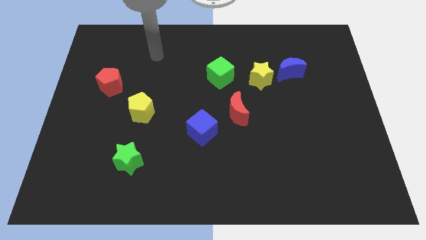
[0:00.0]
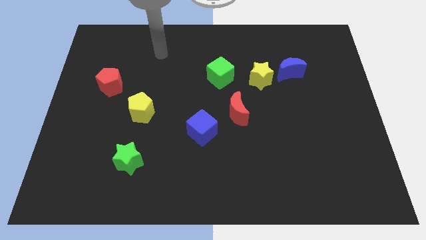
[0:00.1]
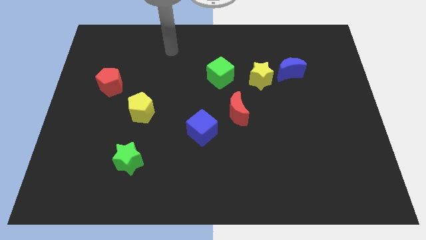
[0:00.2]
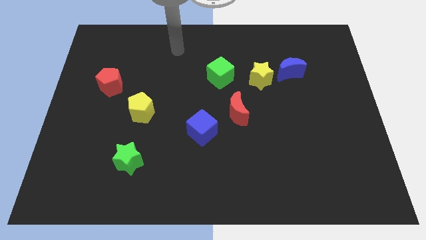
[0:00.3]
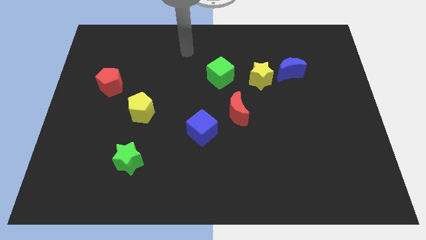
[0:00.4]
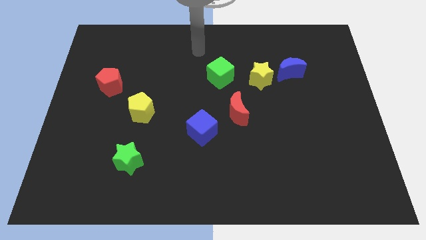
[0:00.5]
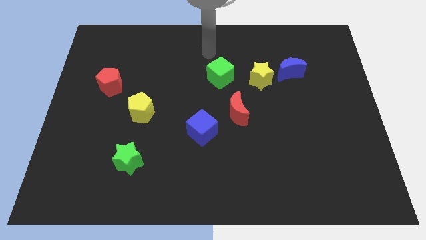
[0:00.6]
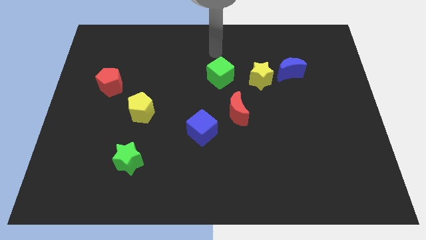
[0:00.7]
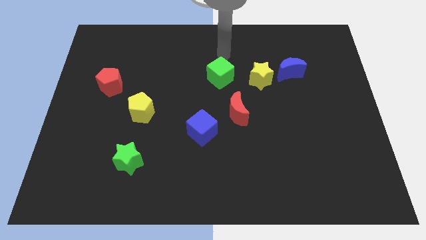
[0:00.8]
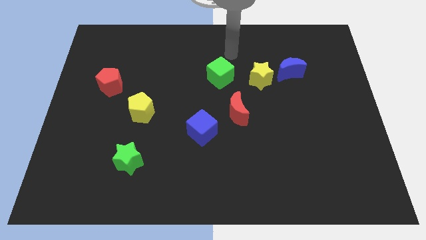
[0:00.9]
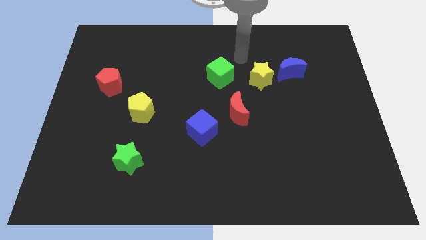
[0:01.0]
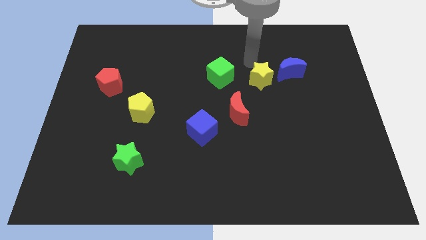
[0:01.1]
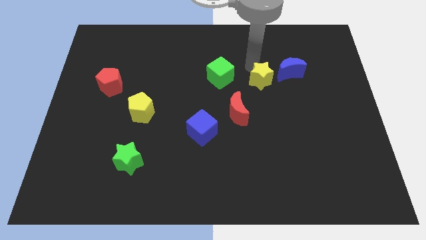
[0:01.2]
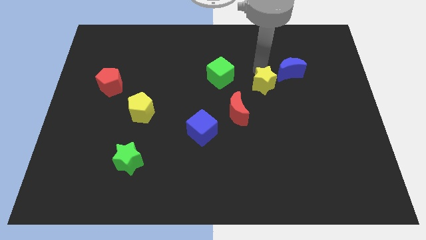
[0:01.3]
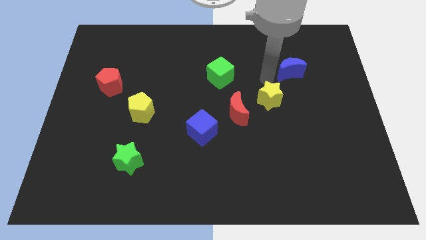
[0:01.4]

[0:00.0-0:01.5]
separate the blue moon from the yellow star

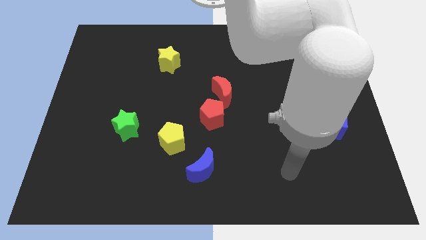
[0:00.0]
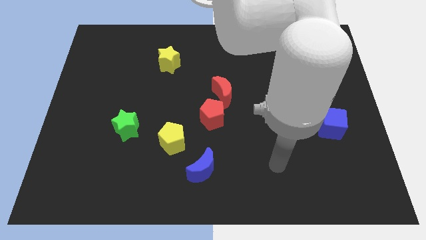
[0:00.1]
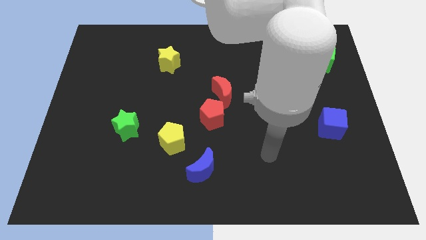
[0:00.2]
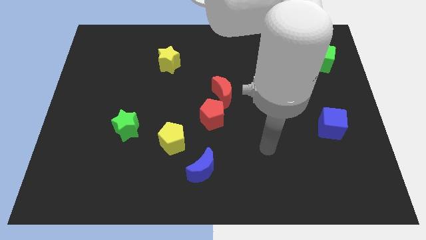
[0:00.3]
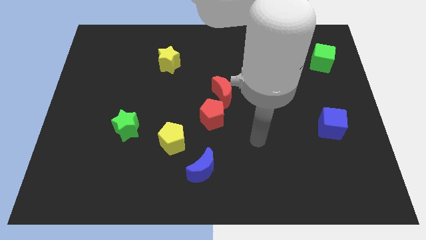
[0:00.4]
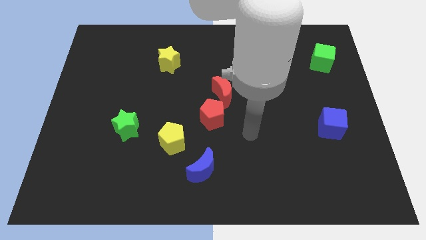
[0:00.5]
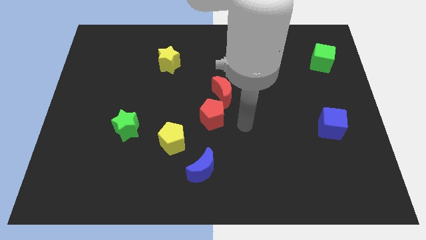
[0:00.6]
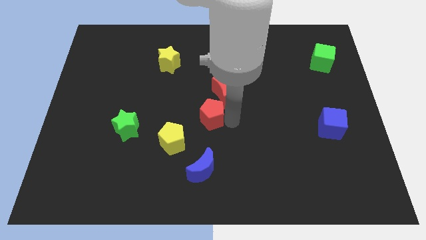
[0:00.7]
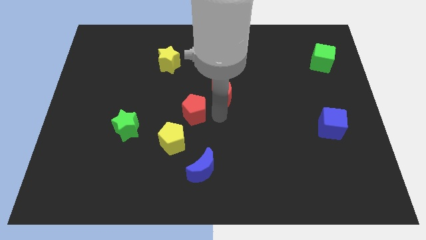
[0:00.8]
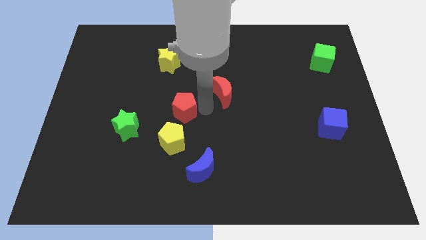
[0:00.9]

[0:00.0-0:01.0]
separate the red moon from the red pentagon

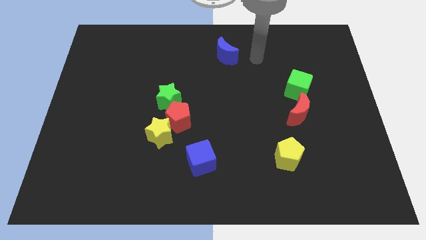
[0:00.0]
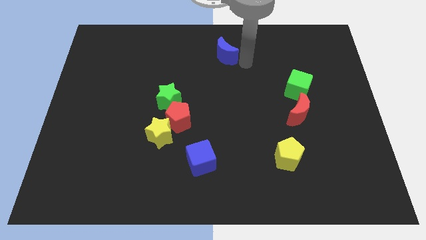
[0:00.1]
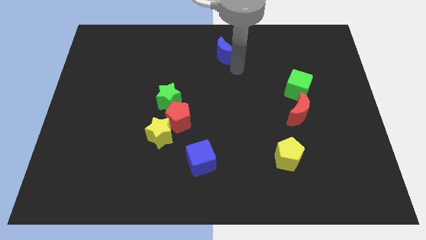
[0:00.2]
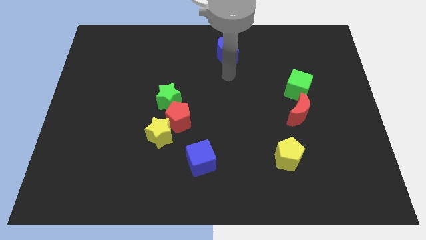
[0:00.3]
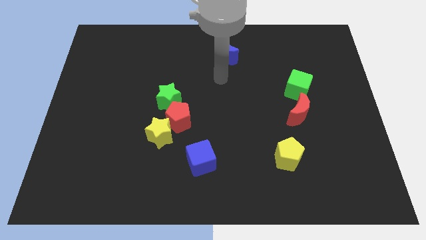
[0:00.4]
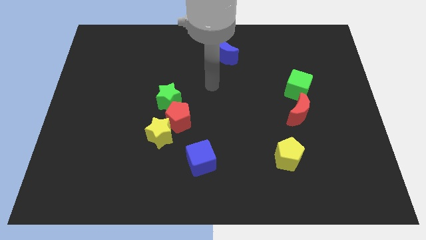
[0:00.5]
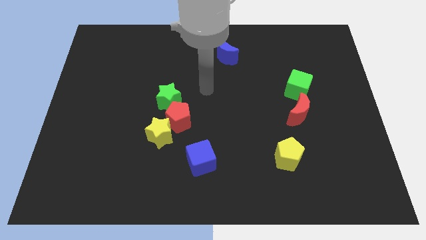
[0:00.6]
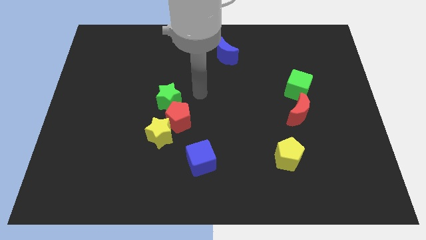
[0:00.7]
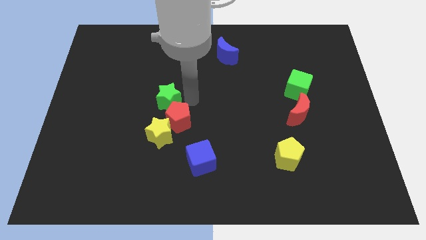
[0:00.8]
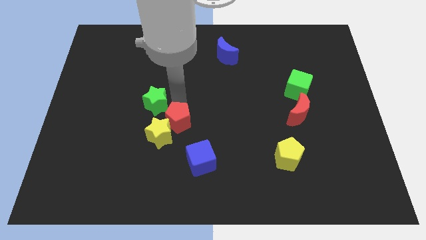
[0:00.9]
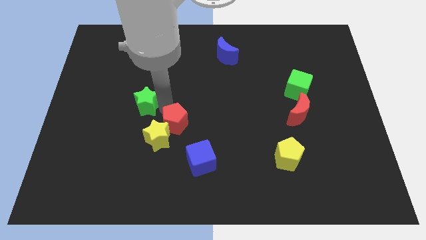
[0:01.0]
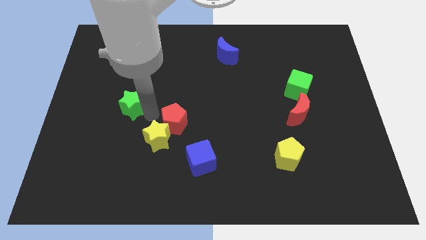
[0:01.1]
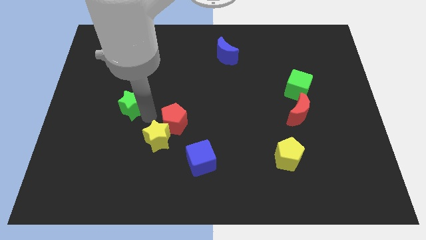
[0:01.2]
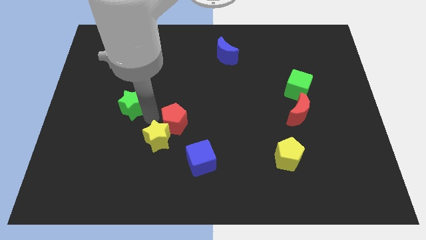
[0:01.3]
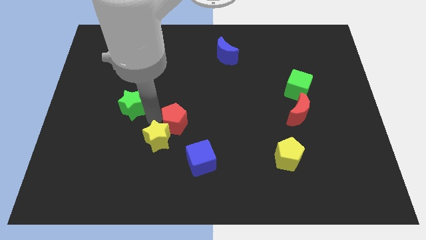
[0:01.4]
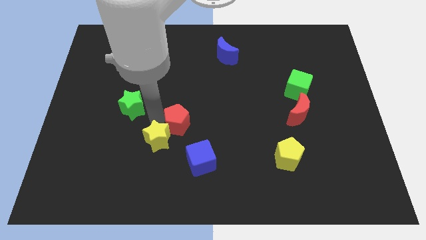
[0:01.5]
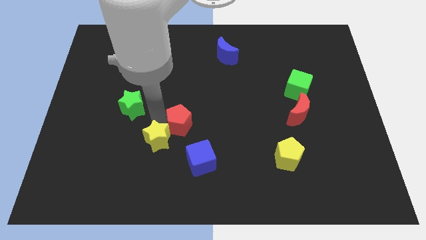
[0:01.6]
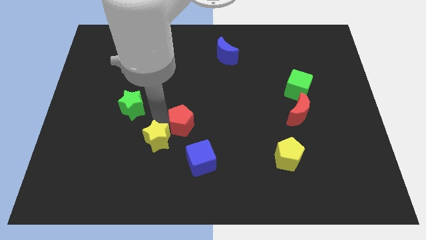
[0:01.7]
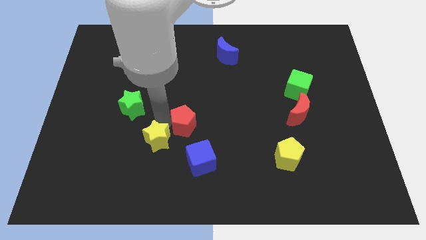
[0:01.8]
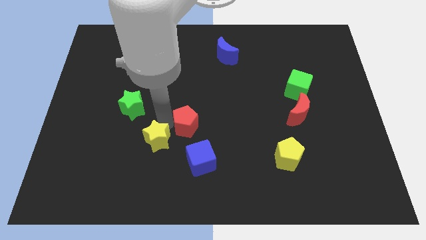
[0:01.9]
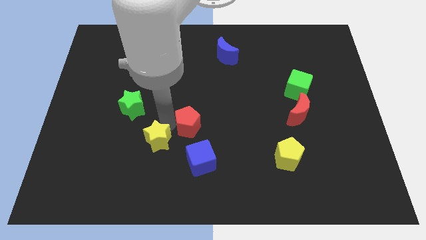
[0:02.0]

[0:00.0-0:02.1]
separate the red pentagon from the yellow star and green star

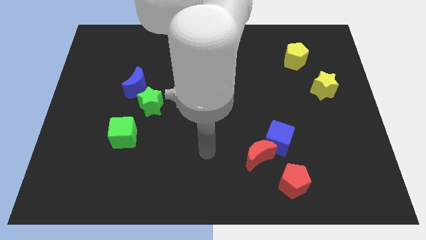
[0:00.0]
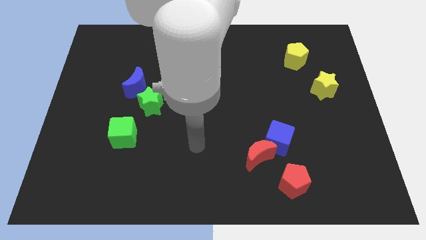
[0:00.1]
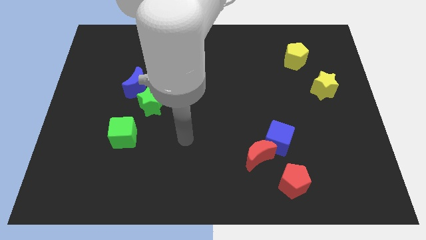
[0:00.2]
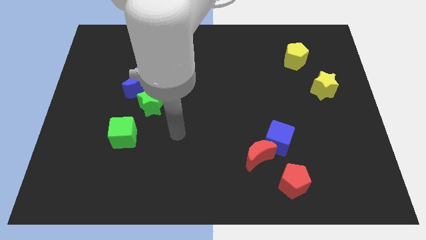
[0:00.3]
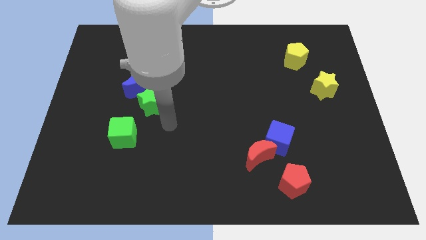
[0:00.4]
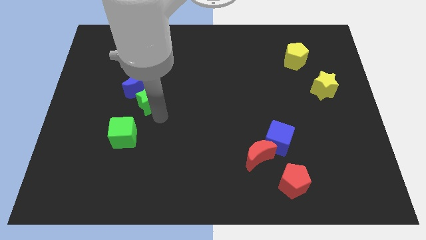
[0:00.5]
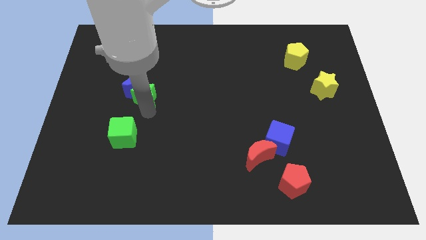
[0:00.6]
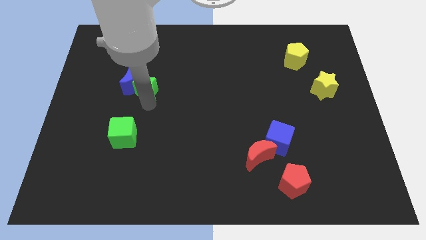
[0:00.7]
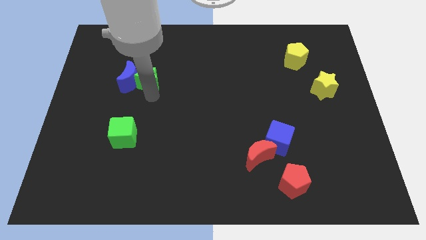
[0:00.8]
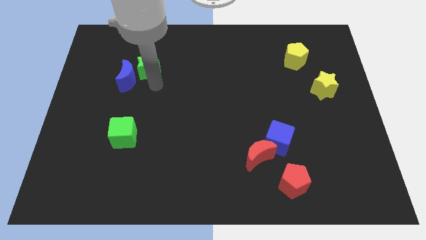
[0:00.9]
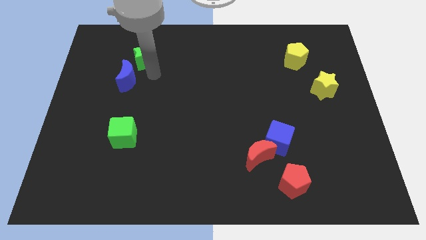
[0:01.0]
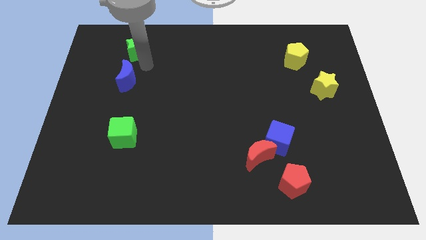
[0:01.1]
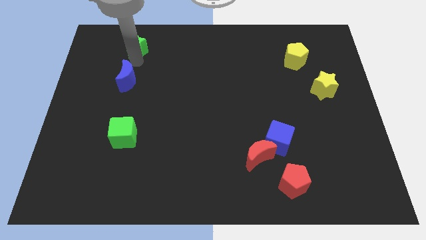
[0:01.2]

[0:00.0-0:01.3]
separate the blue moon from the green star

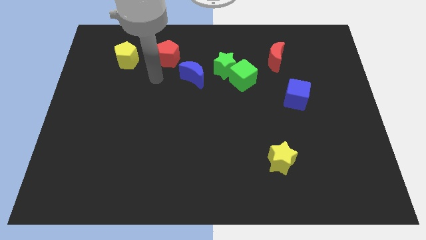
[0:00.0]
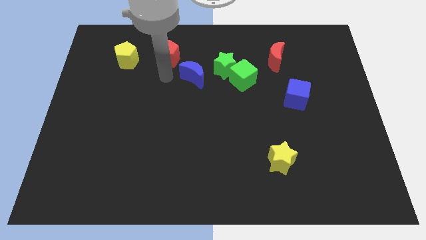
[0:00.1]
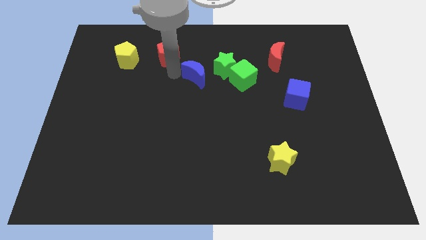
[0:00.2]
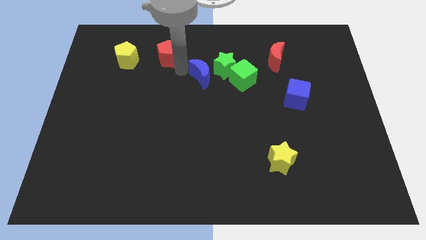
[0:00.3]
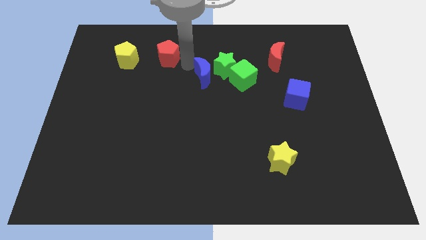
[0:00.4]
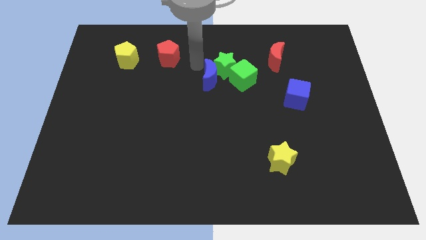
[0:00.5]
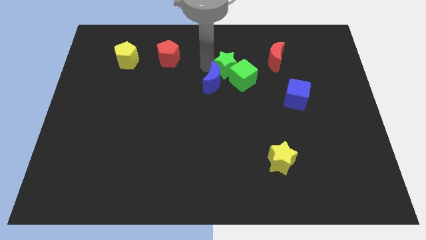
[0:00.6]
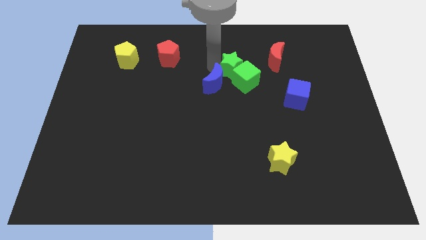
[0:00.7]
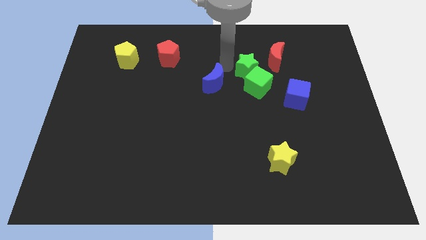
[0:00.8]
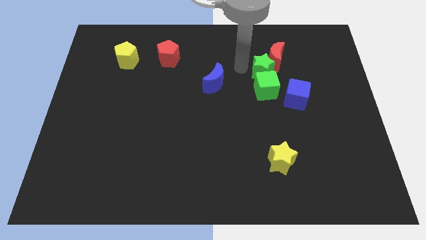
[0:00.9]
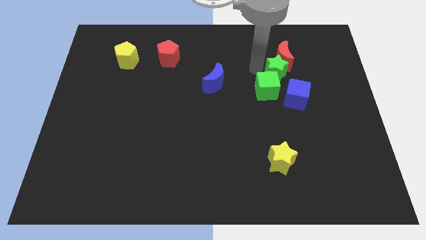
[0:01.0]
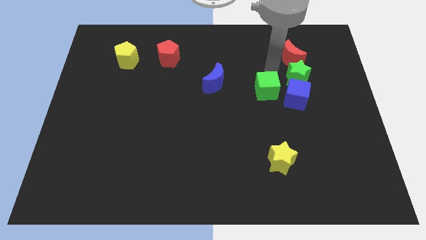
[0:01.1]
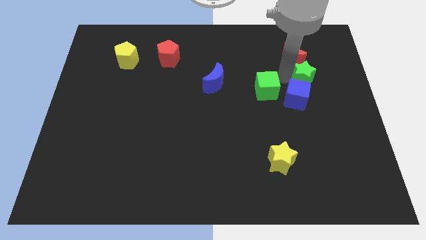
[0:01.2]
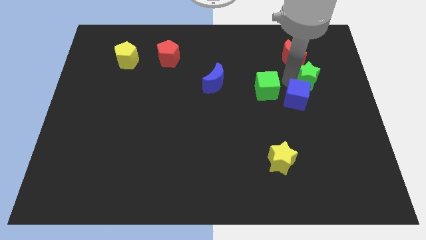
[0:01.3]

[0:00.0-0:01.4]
separate the green cube from the green star

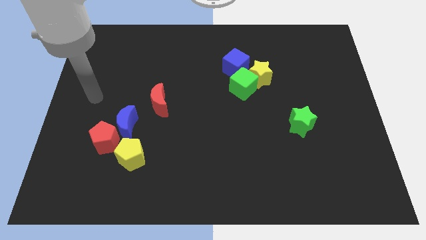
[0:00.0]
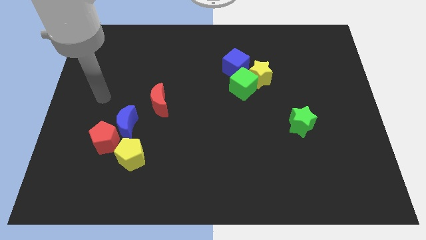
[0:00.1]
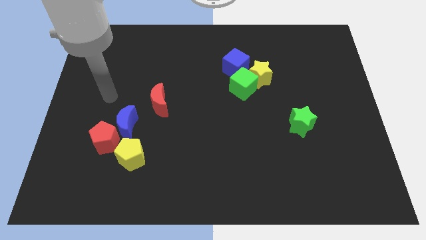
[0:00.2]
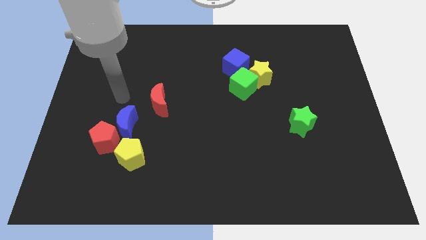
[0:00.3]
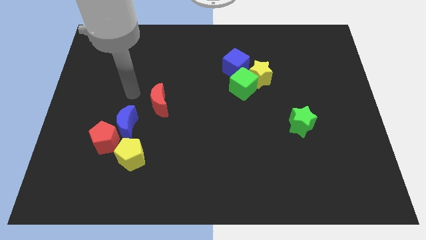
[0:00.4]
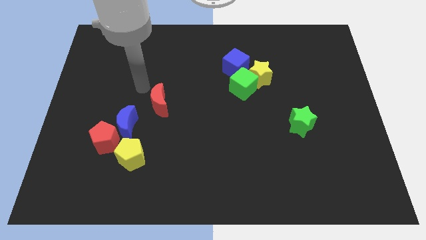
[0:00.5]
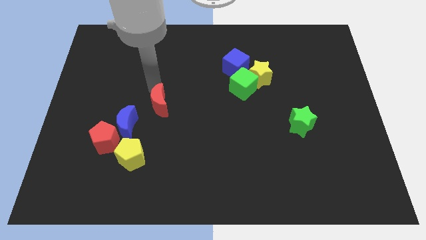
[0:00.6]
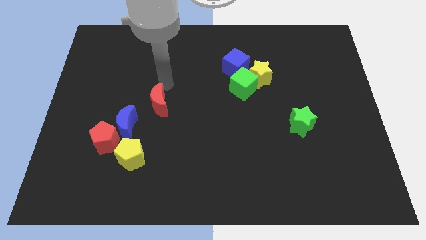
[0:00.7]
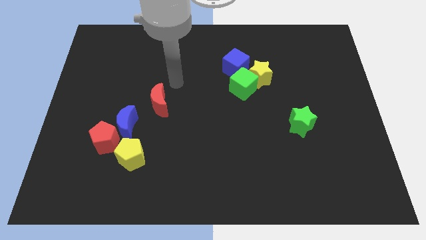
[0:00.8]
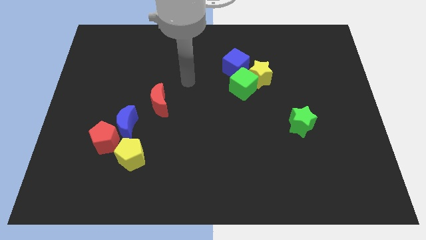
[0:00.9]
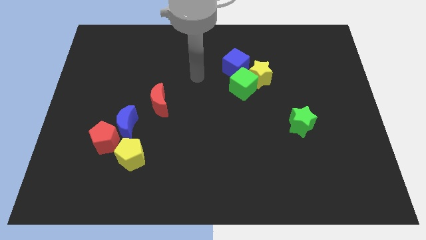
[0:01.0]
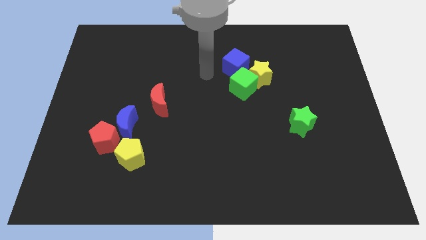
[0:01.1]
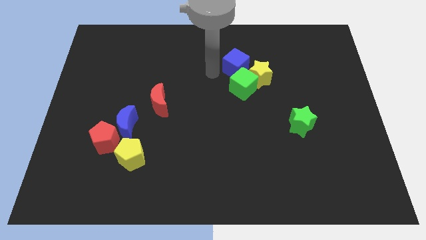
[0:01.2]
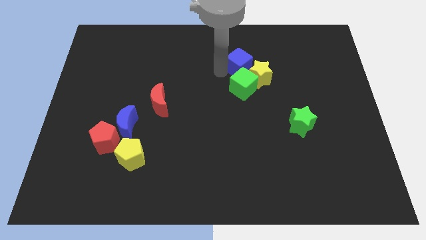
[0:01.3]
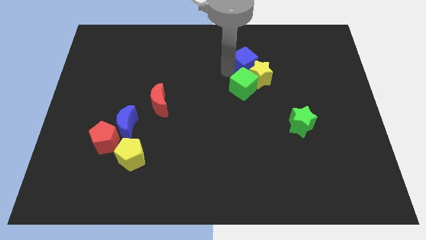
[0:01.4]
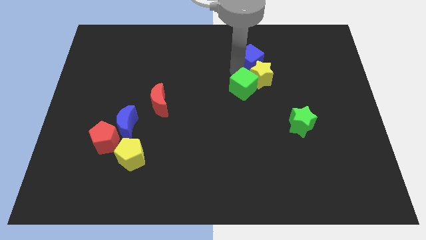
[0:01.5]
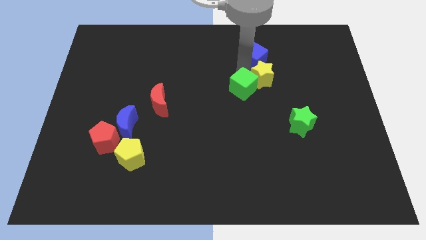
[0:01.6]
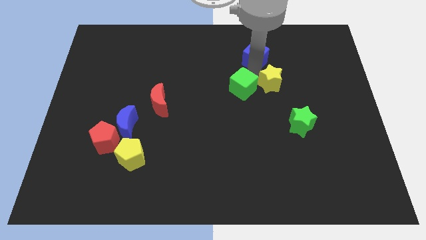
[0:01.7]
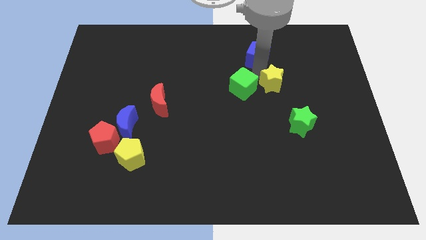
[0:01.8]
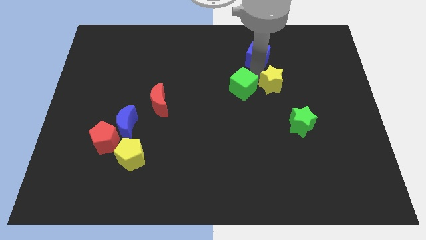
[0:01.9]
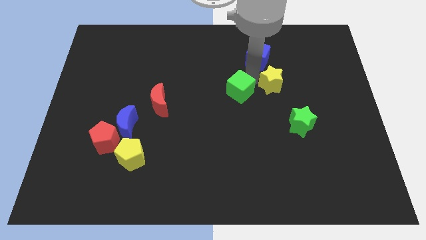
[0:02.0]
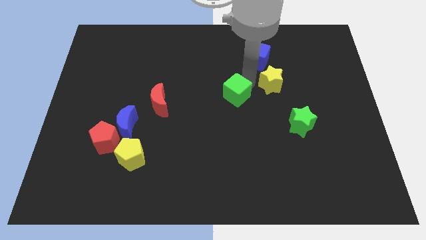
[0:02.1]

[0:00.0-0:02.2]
pull the green cube apart from the yellow star and blue cube

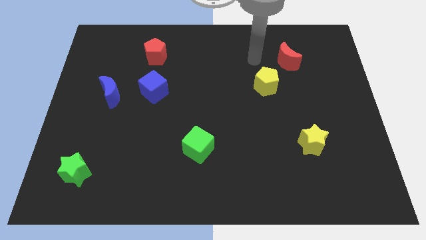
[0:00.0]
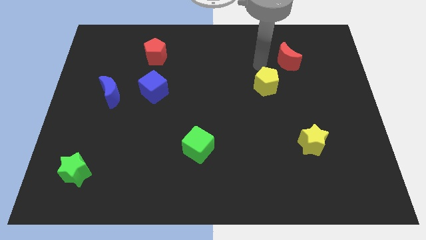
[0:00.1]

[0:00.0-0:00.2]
move the red moon away from the yellow pentagon
